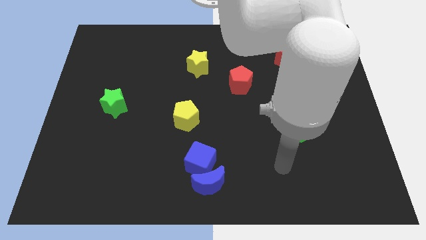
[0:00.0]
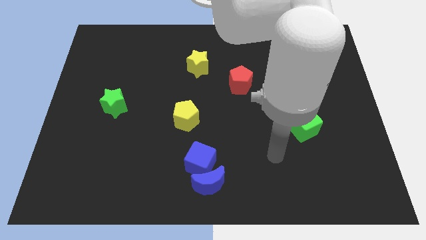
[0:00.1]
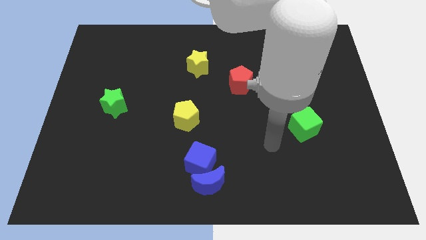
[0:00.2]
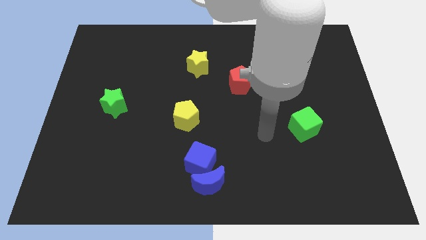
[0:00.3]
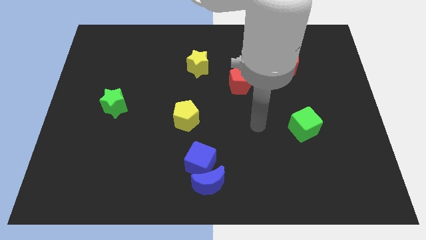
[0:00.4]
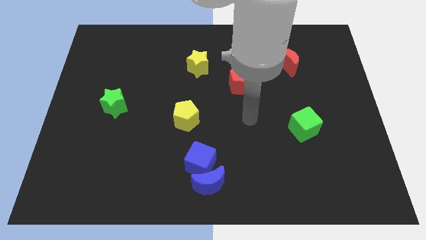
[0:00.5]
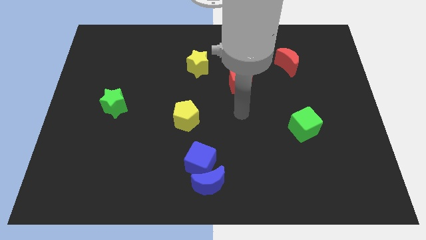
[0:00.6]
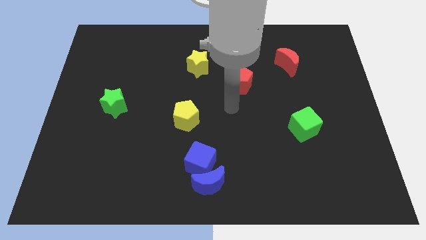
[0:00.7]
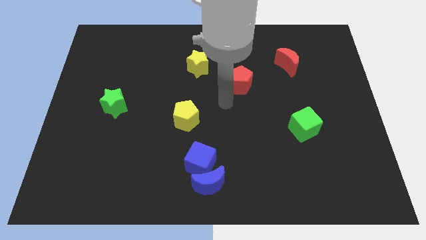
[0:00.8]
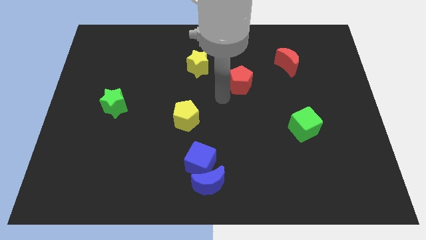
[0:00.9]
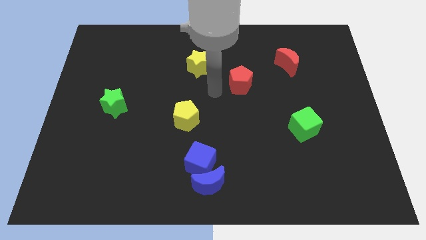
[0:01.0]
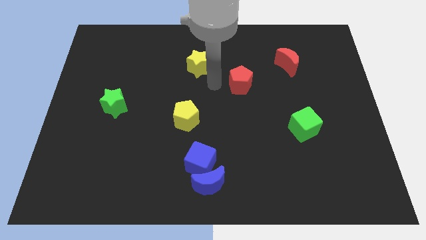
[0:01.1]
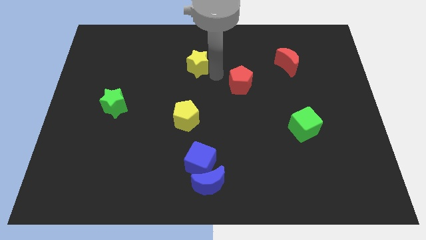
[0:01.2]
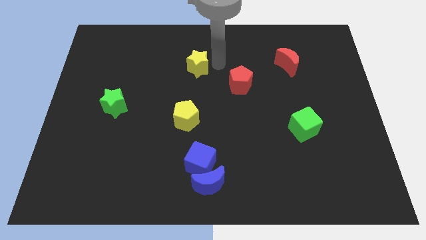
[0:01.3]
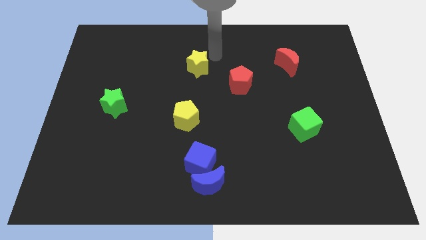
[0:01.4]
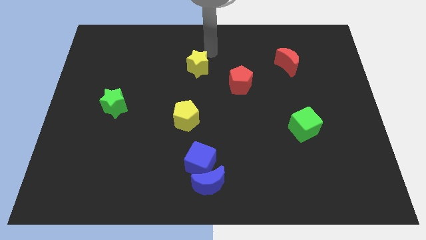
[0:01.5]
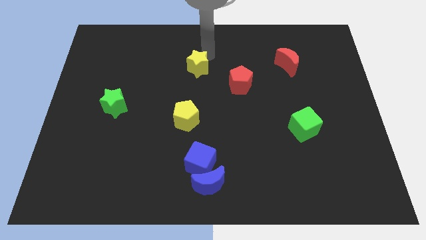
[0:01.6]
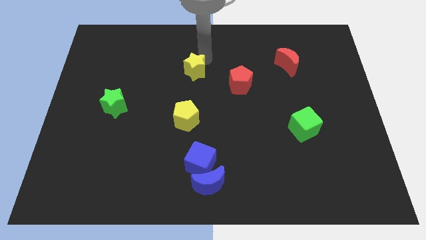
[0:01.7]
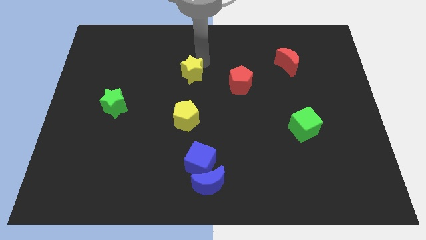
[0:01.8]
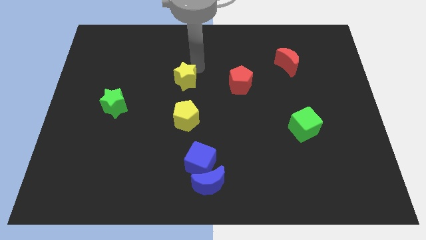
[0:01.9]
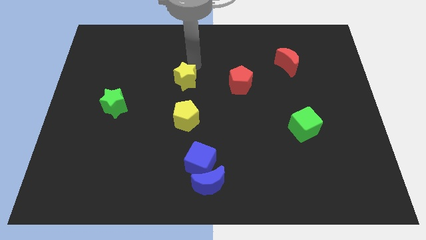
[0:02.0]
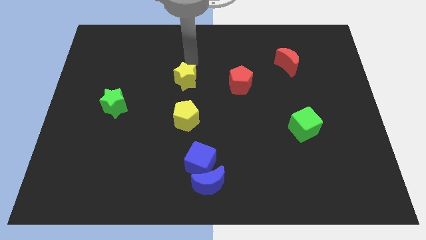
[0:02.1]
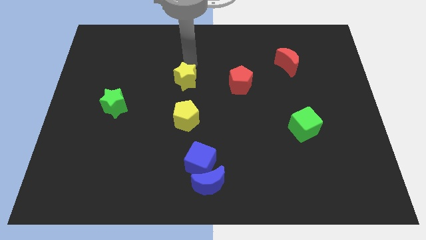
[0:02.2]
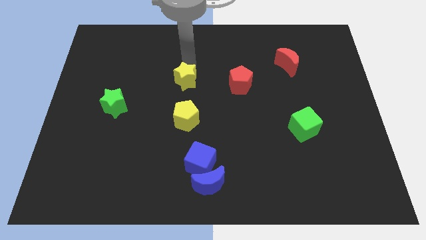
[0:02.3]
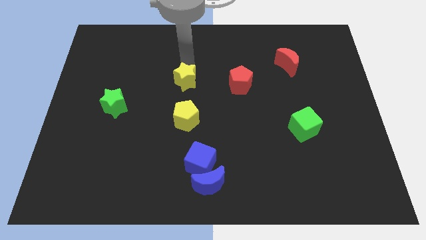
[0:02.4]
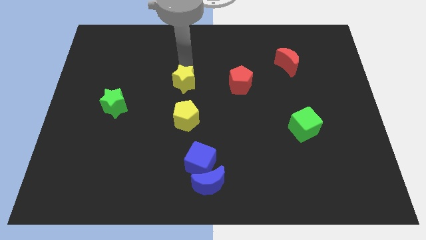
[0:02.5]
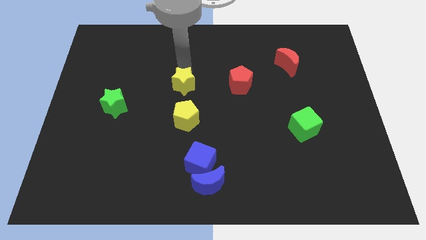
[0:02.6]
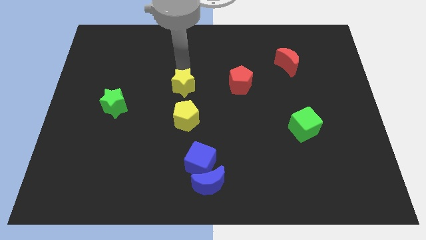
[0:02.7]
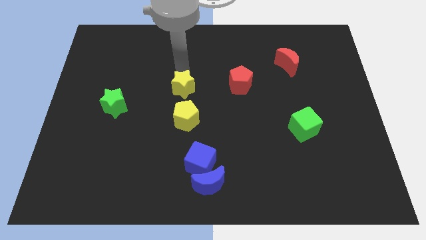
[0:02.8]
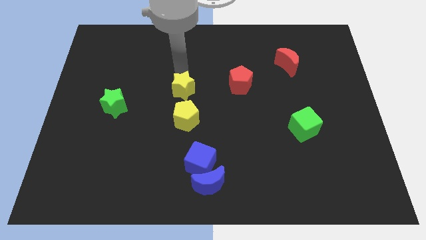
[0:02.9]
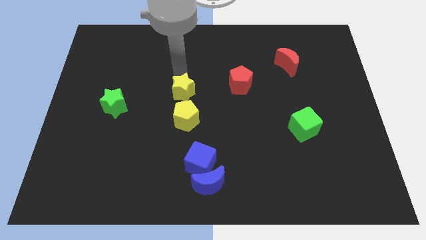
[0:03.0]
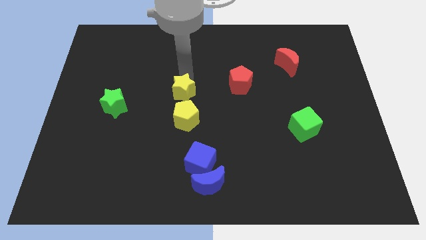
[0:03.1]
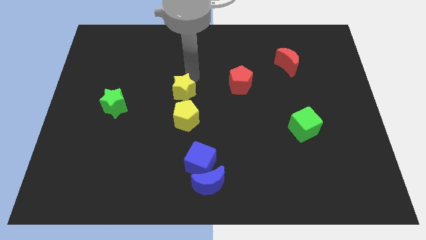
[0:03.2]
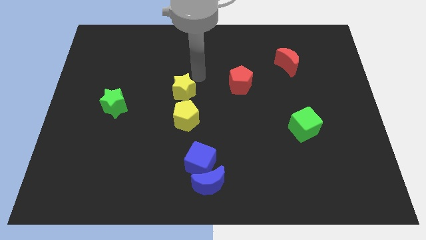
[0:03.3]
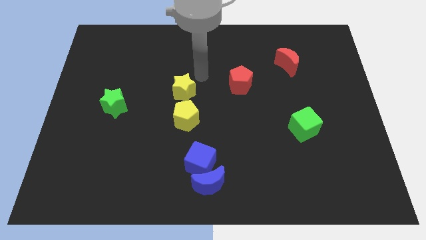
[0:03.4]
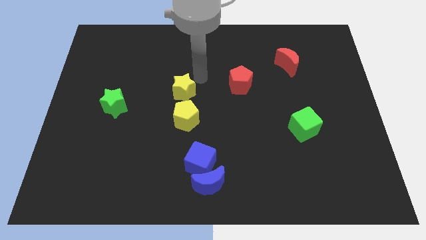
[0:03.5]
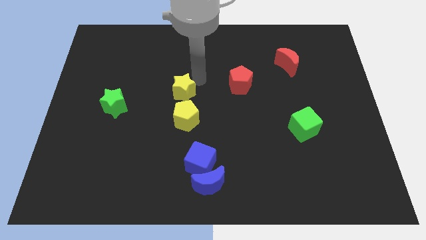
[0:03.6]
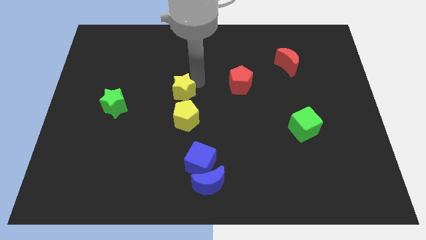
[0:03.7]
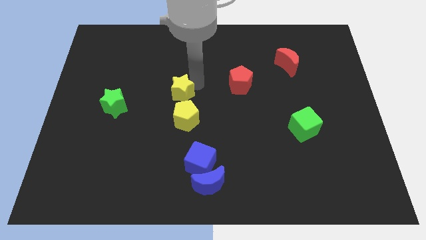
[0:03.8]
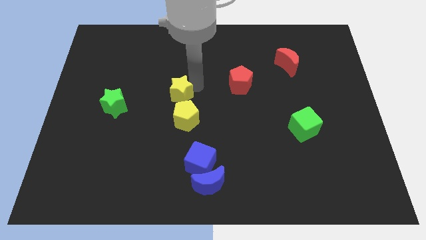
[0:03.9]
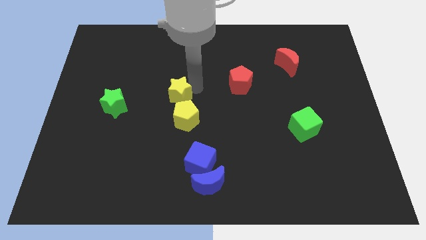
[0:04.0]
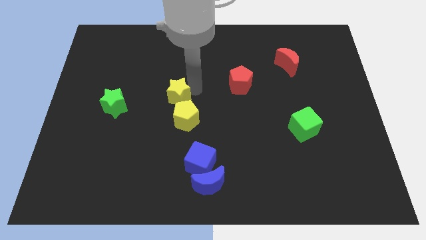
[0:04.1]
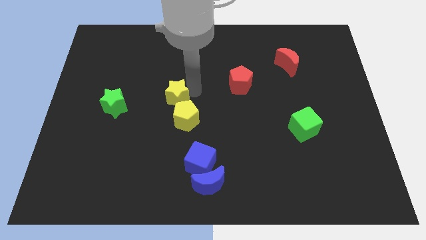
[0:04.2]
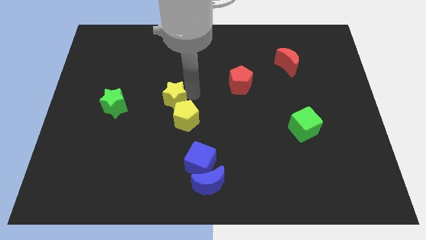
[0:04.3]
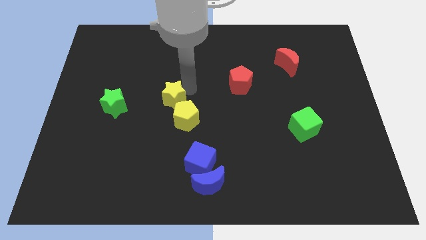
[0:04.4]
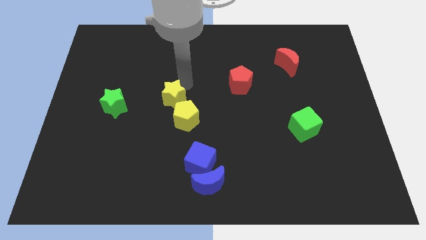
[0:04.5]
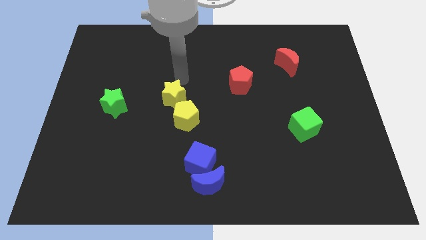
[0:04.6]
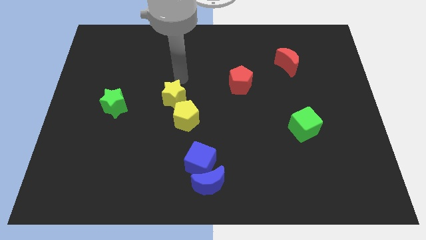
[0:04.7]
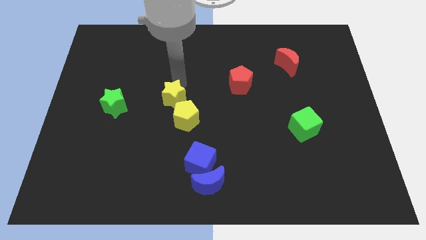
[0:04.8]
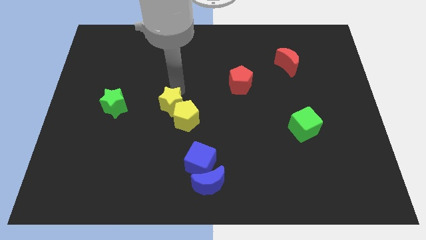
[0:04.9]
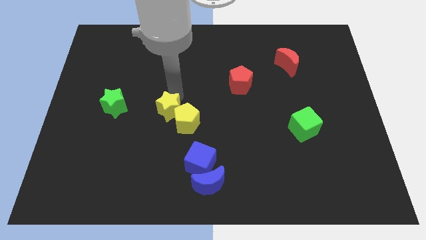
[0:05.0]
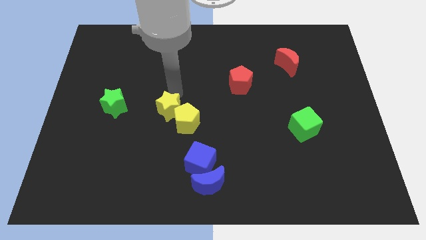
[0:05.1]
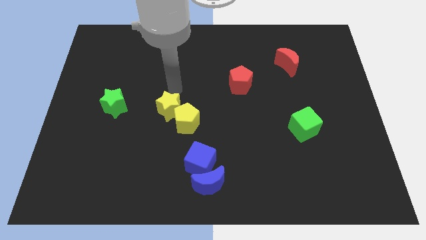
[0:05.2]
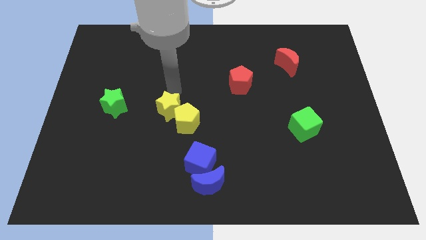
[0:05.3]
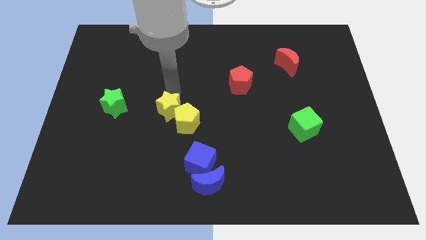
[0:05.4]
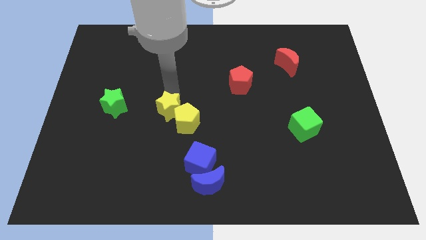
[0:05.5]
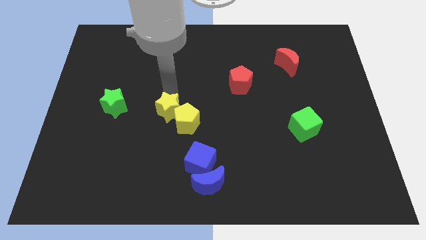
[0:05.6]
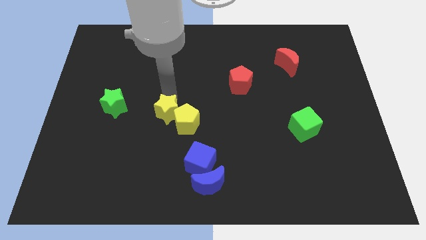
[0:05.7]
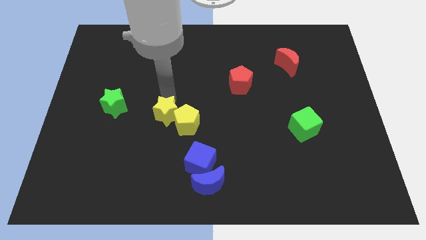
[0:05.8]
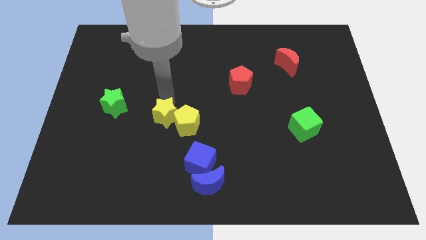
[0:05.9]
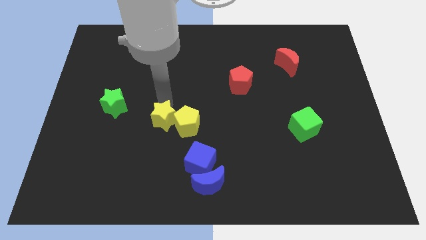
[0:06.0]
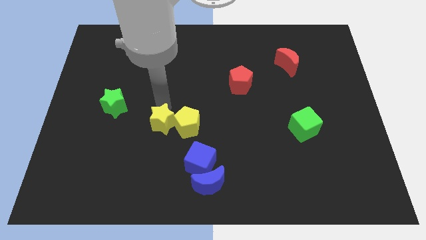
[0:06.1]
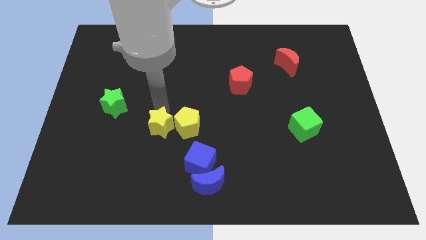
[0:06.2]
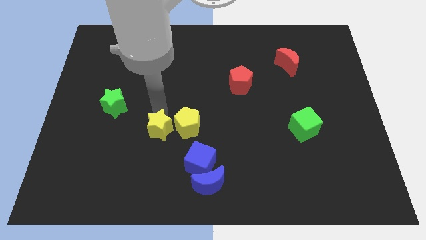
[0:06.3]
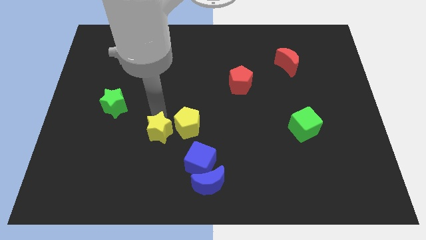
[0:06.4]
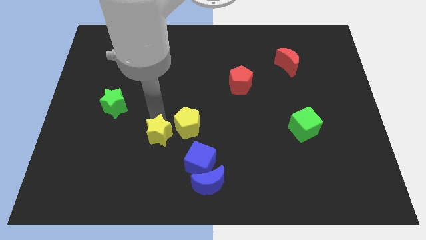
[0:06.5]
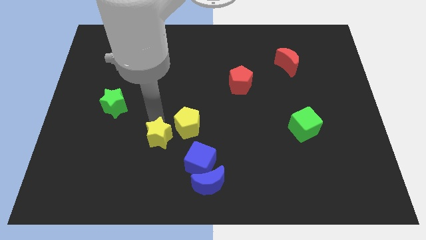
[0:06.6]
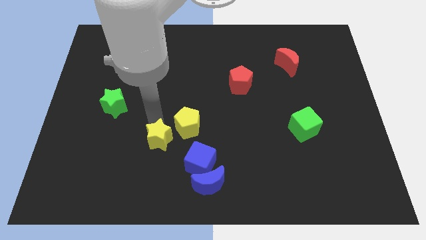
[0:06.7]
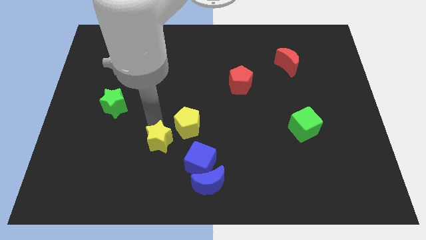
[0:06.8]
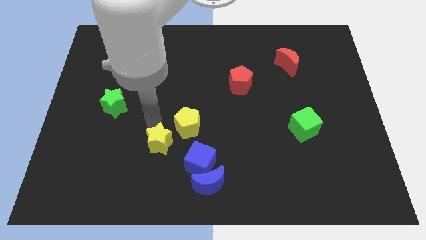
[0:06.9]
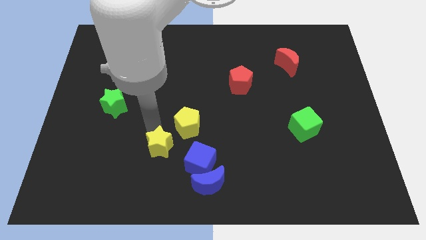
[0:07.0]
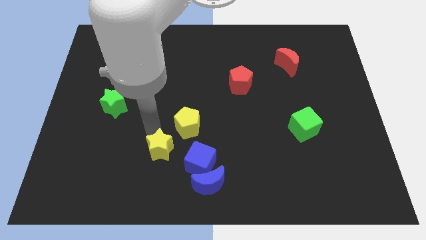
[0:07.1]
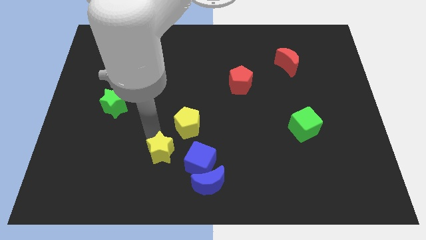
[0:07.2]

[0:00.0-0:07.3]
slide the yellow star below the yellow pentagon
